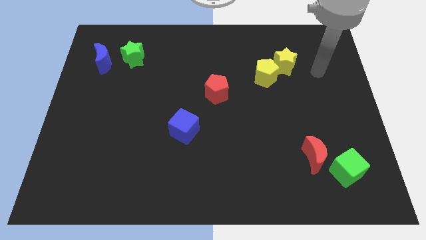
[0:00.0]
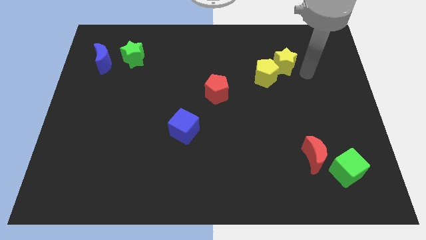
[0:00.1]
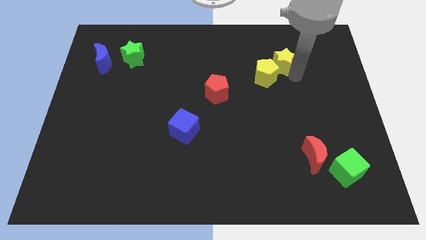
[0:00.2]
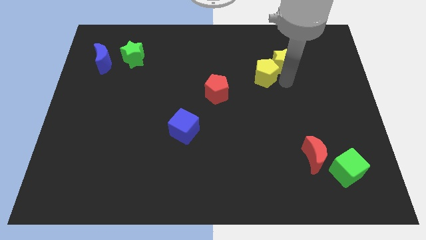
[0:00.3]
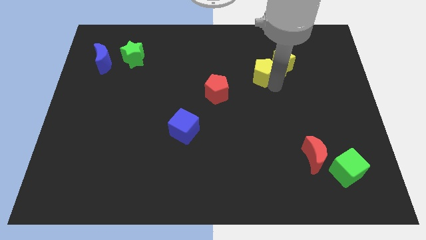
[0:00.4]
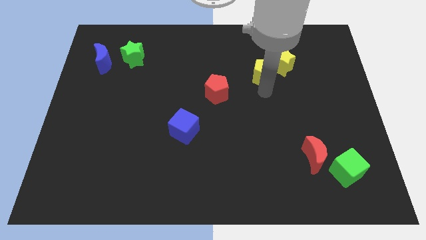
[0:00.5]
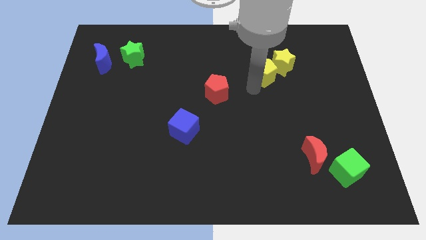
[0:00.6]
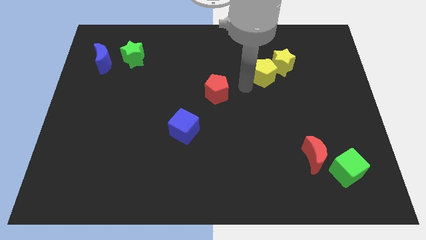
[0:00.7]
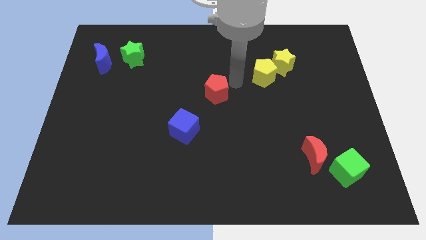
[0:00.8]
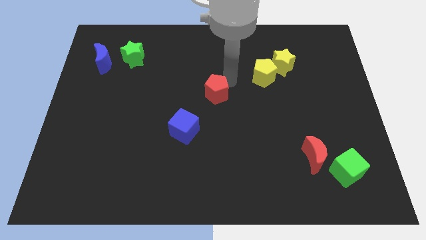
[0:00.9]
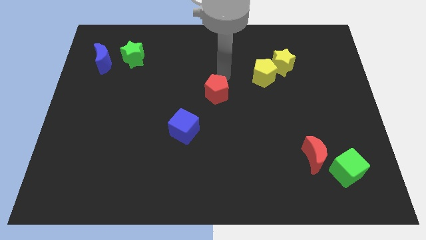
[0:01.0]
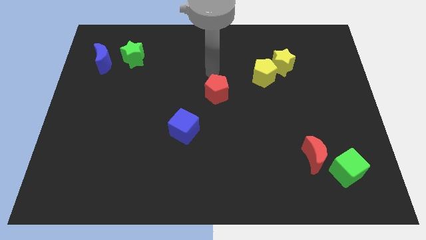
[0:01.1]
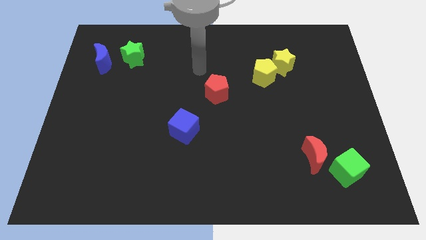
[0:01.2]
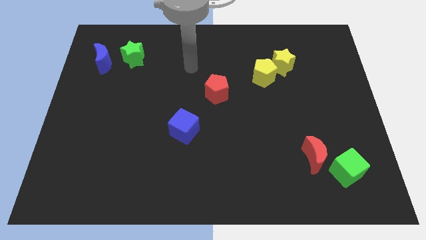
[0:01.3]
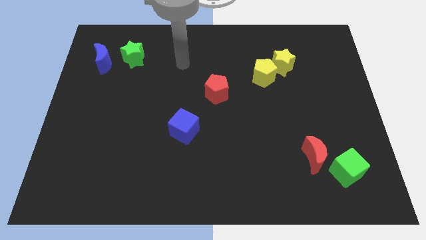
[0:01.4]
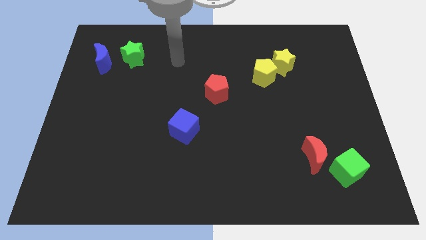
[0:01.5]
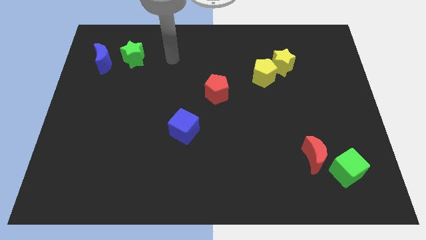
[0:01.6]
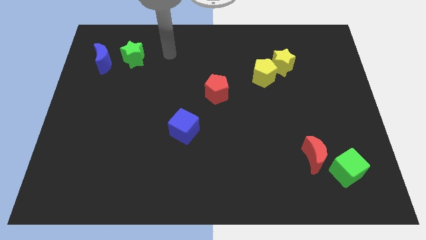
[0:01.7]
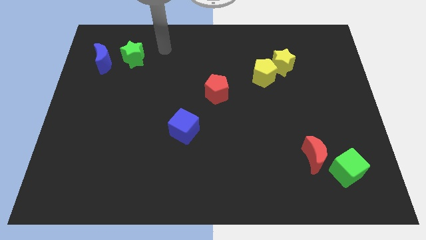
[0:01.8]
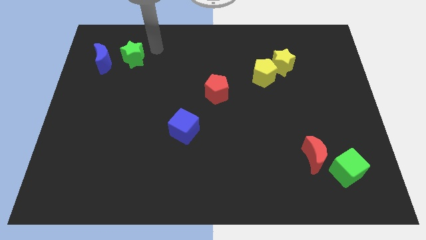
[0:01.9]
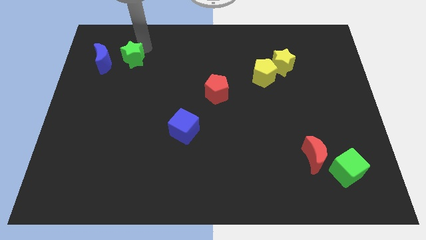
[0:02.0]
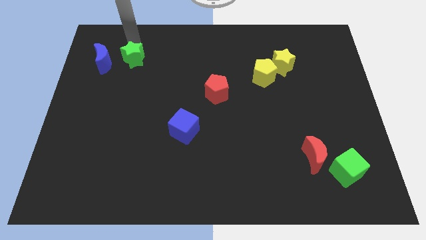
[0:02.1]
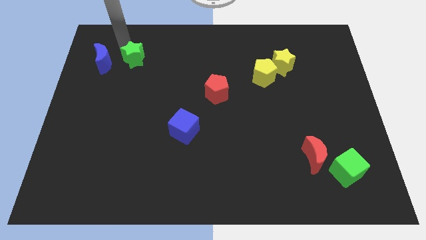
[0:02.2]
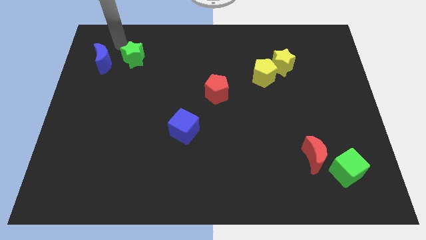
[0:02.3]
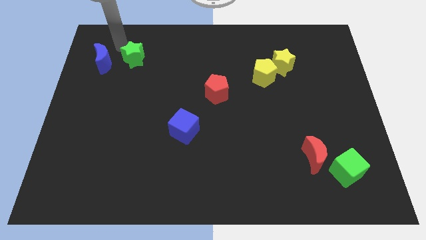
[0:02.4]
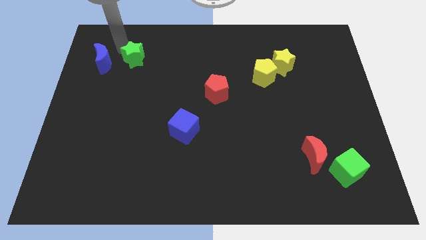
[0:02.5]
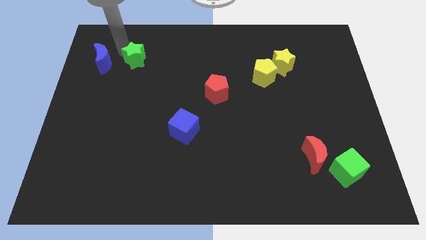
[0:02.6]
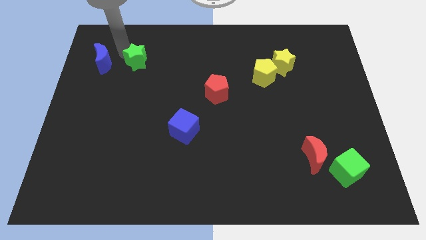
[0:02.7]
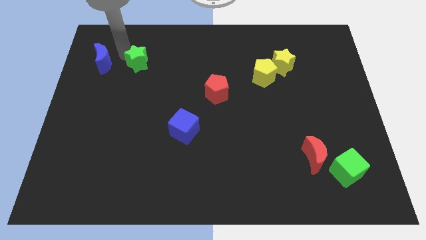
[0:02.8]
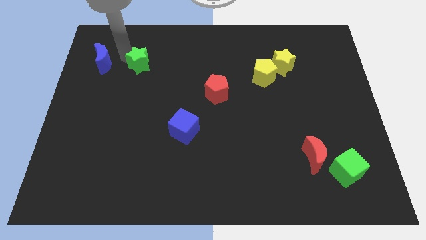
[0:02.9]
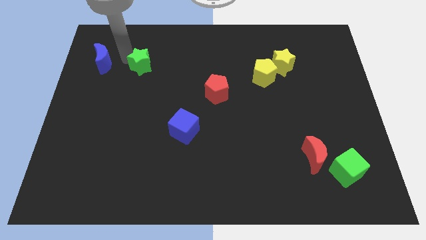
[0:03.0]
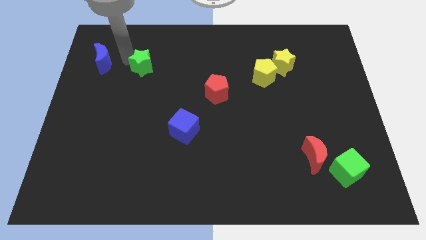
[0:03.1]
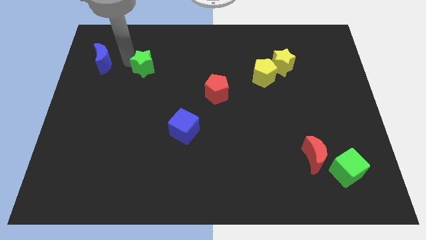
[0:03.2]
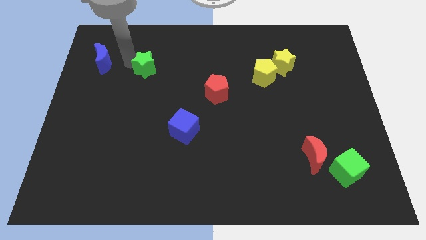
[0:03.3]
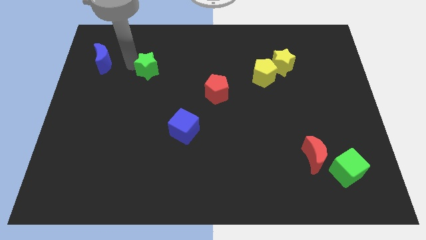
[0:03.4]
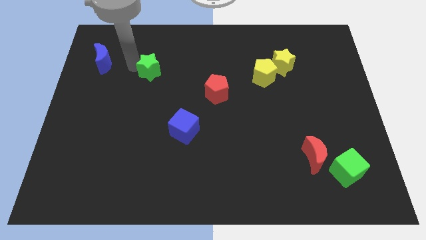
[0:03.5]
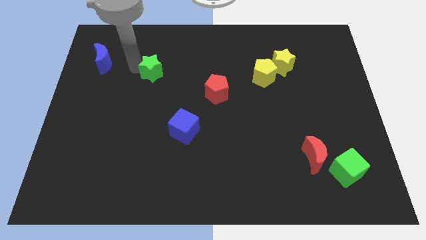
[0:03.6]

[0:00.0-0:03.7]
move the green star somewhat down and then to the right

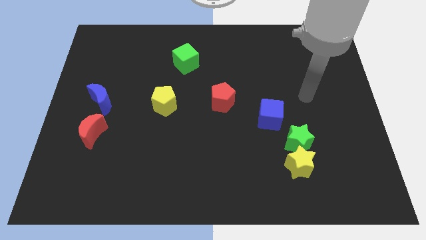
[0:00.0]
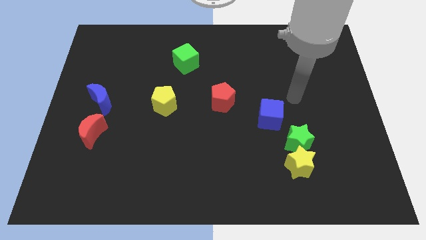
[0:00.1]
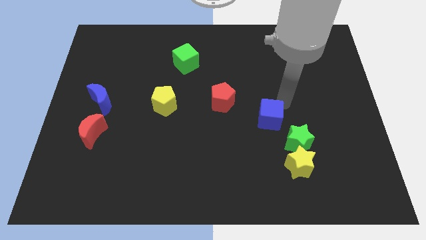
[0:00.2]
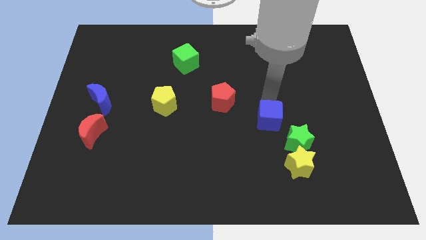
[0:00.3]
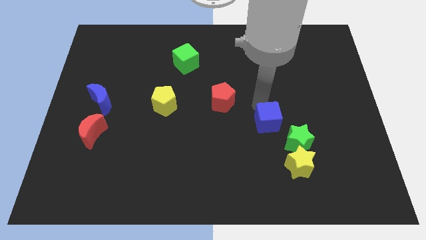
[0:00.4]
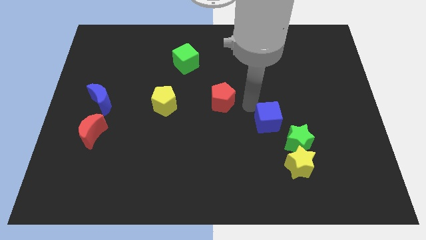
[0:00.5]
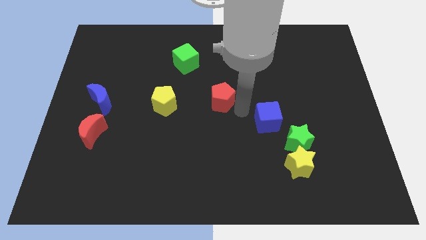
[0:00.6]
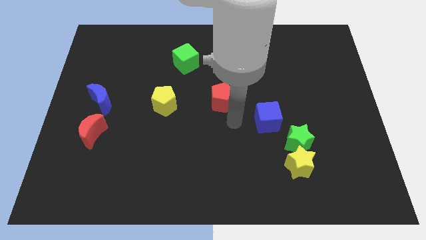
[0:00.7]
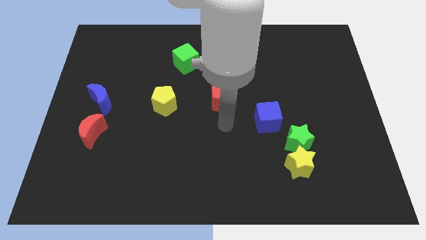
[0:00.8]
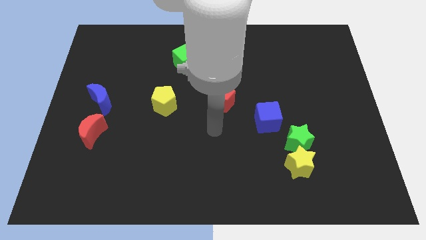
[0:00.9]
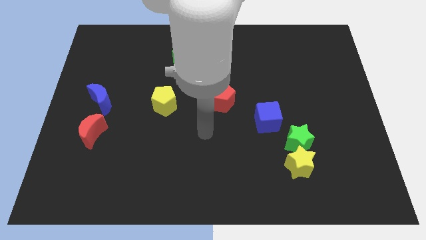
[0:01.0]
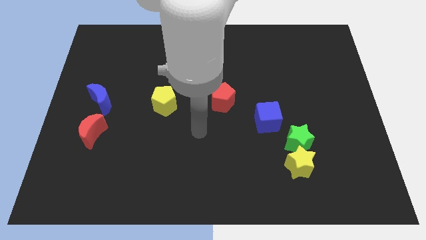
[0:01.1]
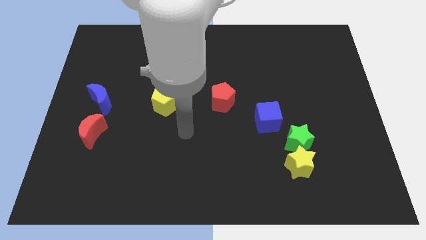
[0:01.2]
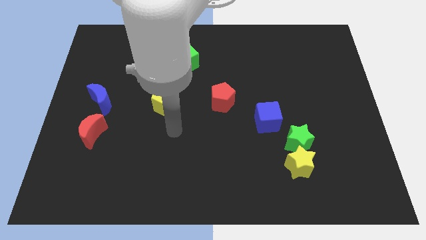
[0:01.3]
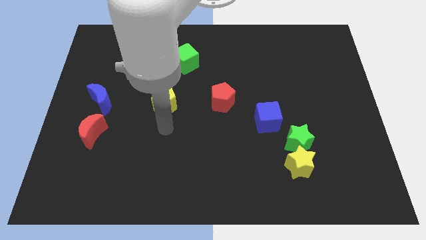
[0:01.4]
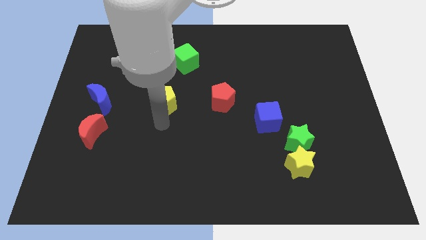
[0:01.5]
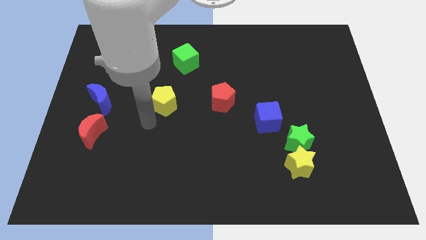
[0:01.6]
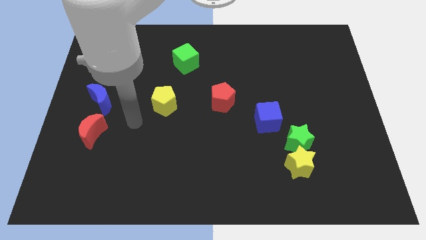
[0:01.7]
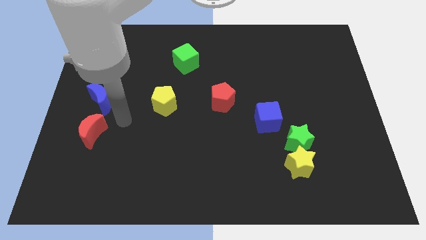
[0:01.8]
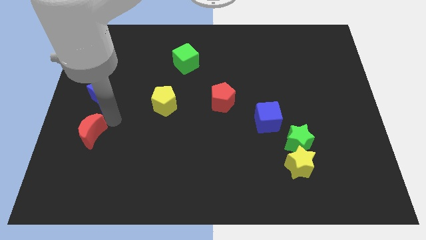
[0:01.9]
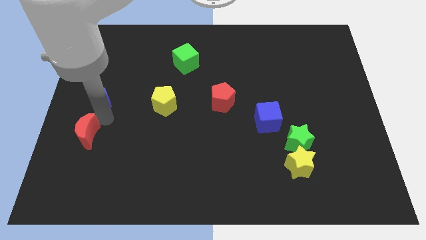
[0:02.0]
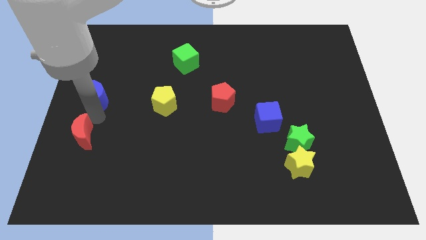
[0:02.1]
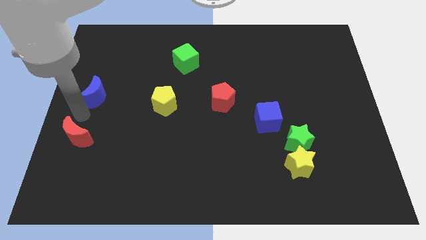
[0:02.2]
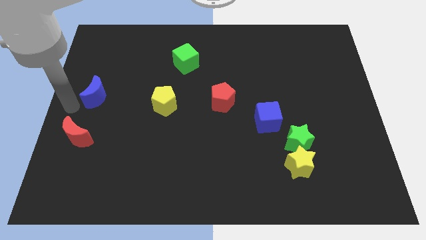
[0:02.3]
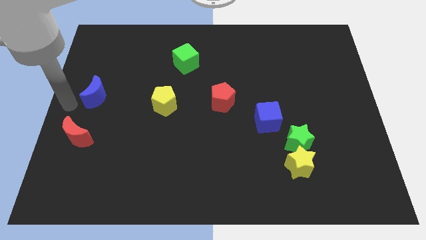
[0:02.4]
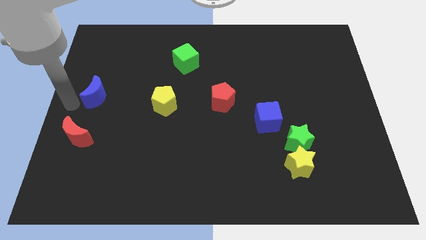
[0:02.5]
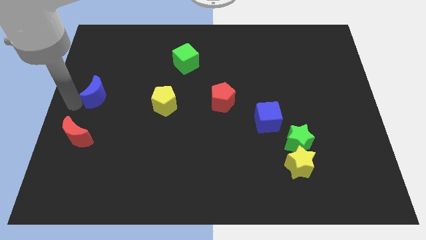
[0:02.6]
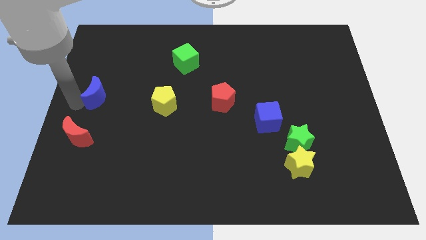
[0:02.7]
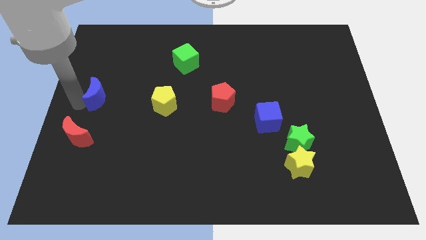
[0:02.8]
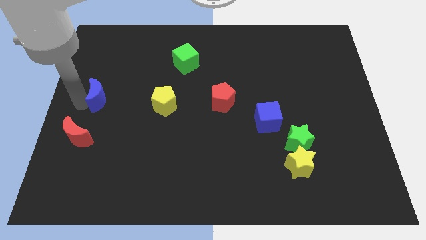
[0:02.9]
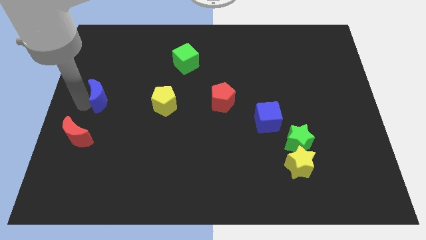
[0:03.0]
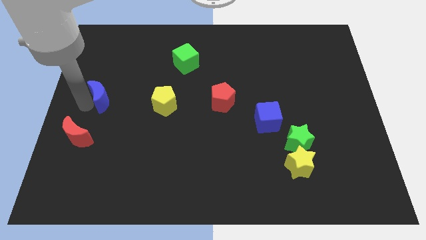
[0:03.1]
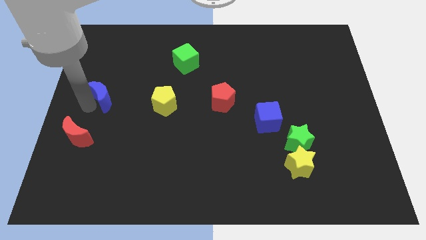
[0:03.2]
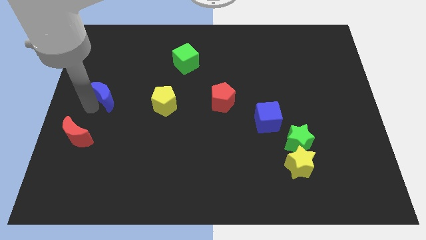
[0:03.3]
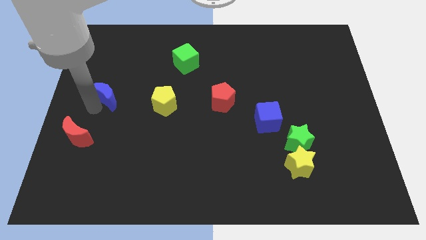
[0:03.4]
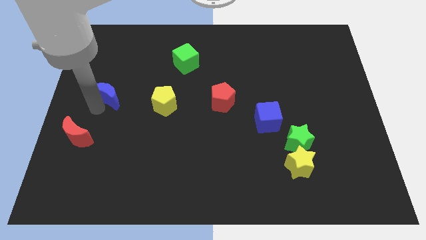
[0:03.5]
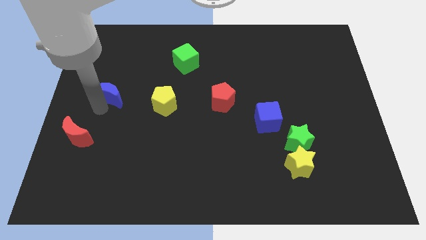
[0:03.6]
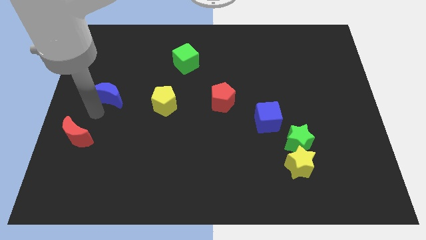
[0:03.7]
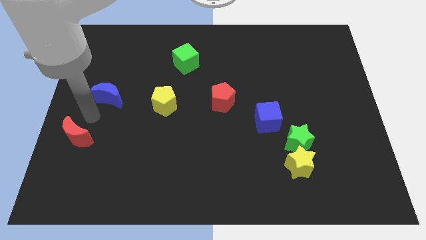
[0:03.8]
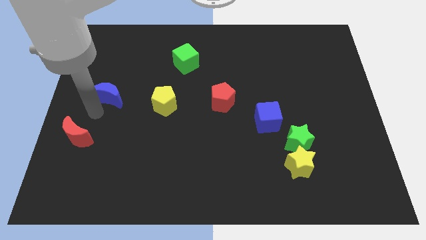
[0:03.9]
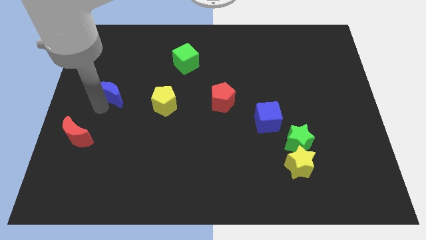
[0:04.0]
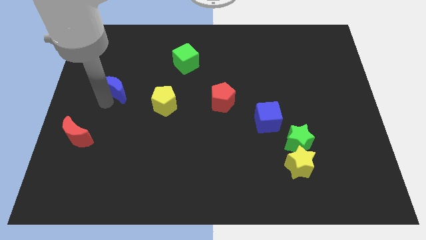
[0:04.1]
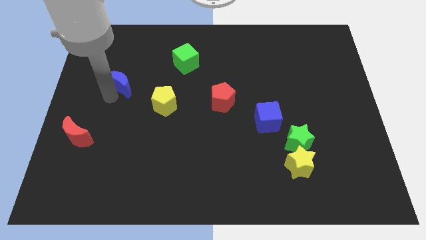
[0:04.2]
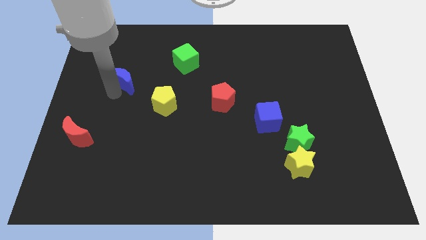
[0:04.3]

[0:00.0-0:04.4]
slightly move the blue moon upwards and then to the right
